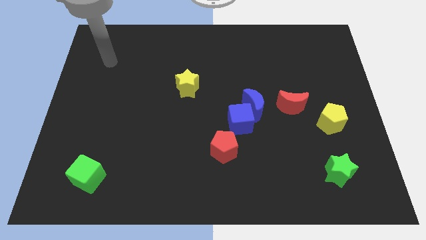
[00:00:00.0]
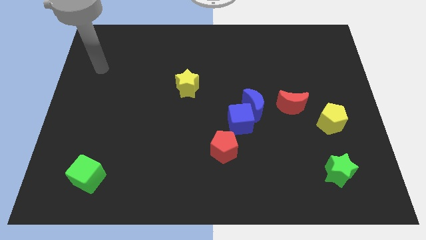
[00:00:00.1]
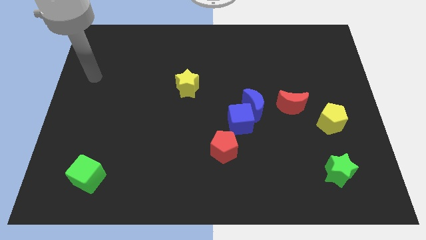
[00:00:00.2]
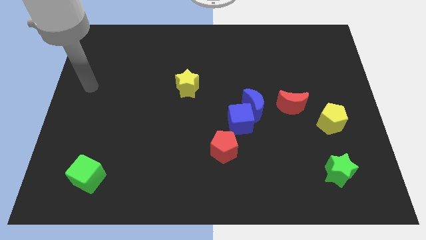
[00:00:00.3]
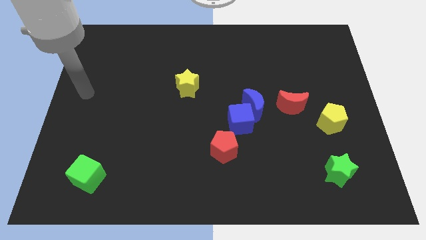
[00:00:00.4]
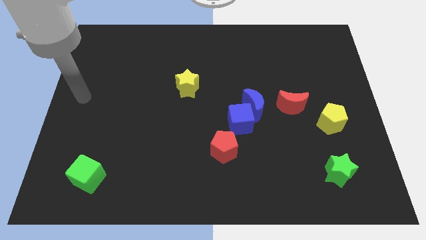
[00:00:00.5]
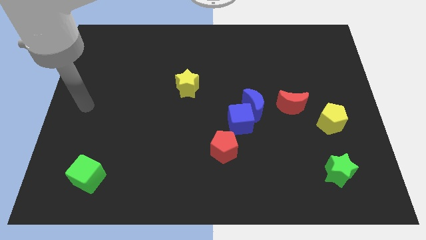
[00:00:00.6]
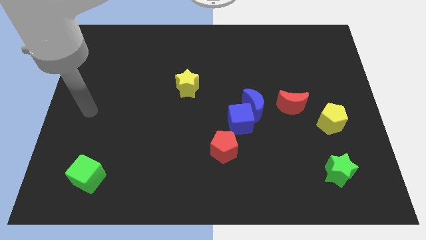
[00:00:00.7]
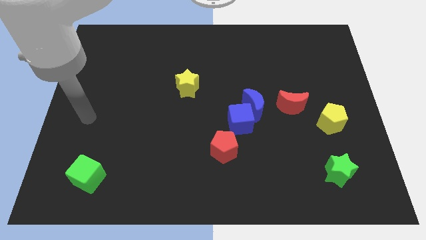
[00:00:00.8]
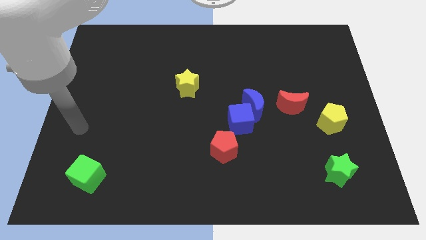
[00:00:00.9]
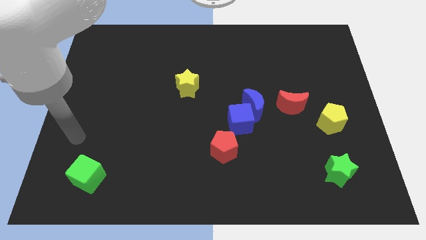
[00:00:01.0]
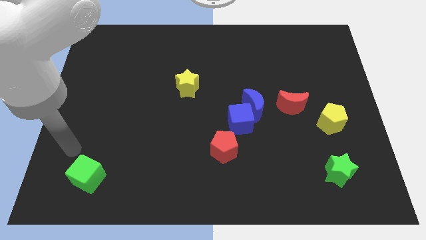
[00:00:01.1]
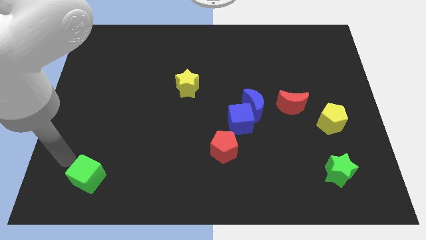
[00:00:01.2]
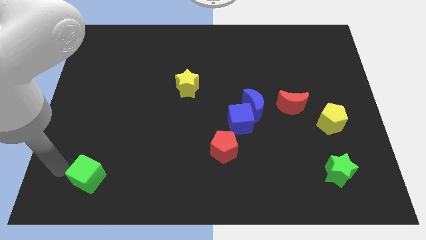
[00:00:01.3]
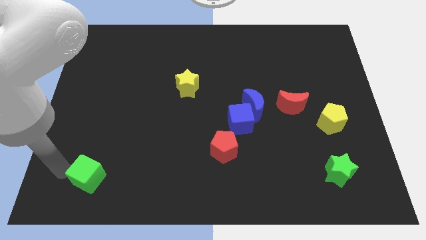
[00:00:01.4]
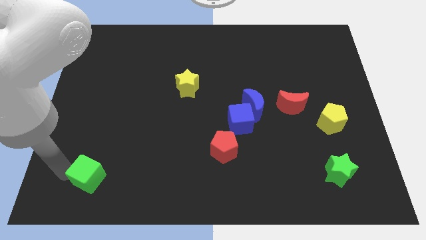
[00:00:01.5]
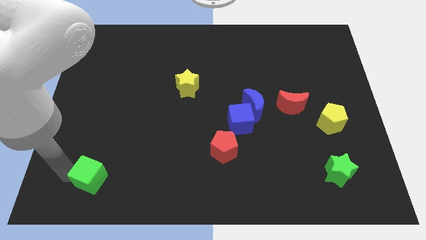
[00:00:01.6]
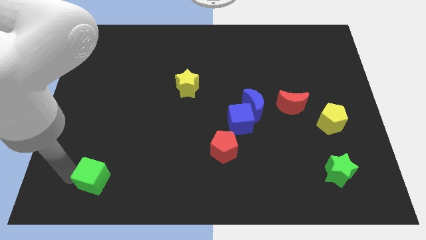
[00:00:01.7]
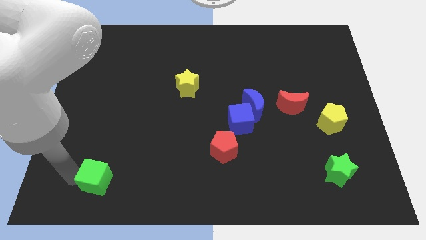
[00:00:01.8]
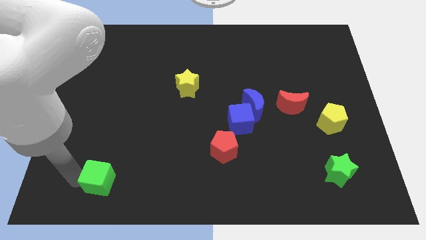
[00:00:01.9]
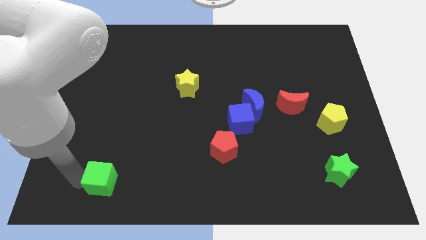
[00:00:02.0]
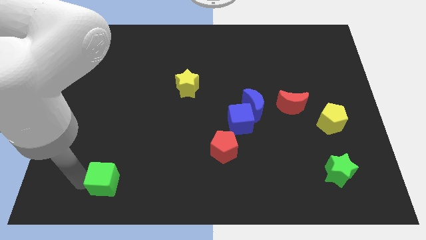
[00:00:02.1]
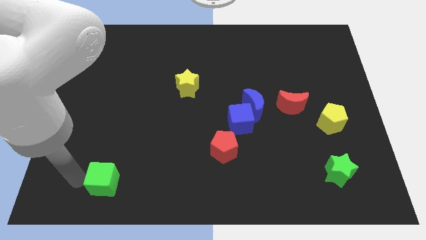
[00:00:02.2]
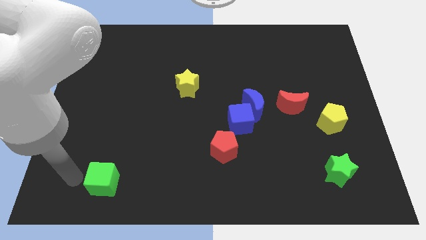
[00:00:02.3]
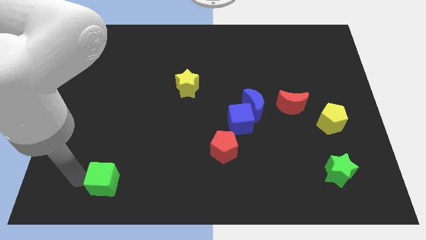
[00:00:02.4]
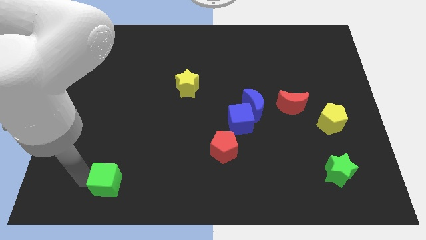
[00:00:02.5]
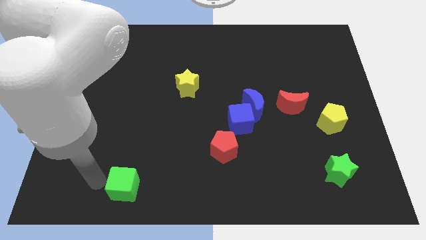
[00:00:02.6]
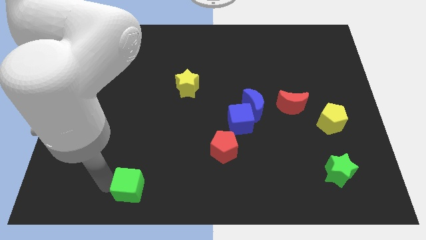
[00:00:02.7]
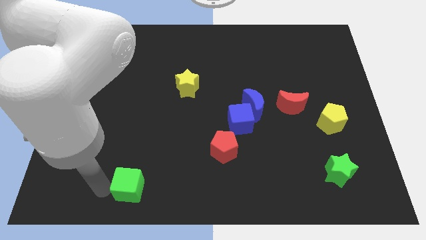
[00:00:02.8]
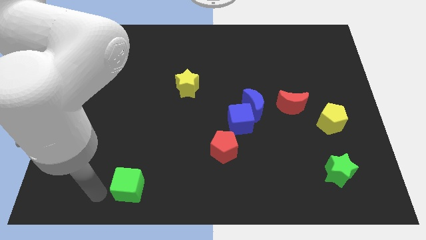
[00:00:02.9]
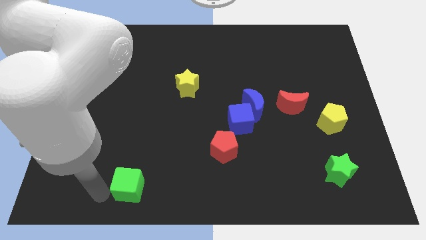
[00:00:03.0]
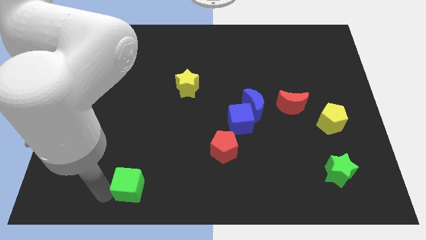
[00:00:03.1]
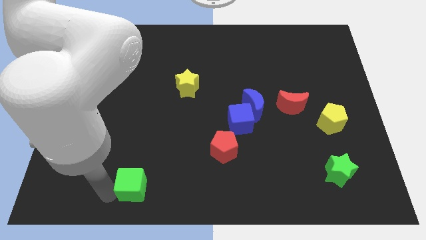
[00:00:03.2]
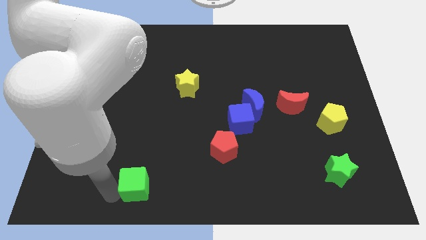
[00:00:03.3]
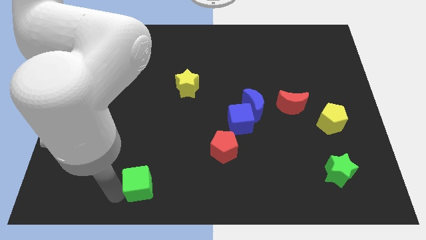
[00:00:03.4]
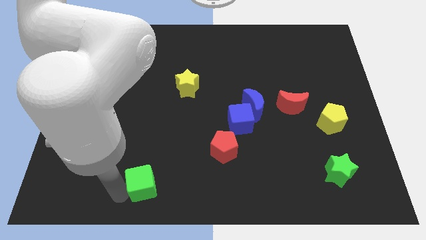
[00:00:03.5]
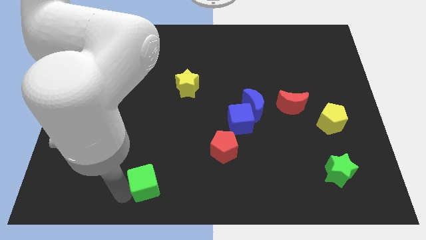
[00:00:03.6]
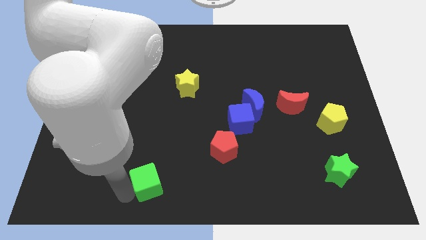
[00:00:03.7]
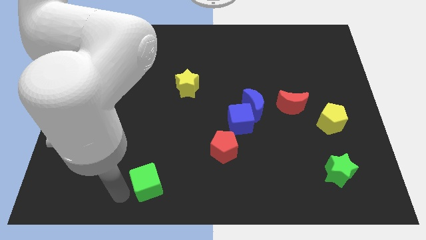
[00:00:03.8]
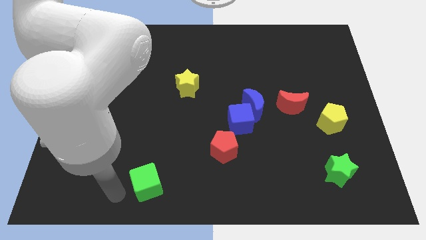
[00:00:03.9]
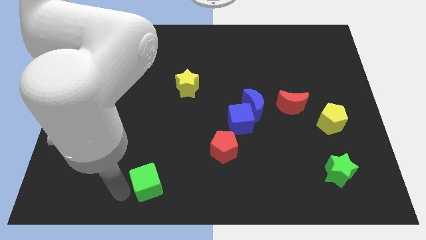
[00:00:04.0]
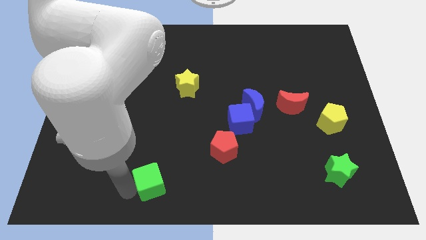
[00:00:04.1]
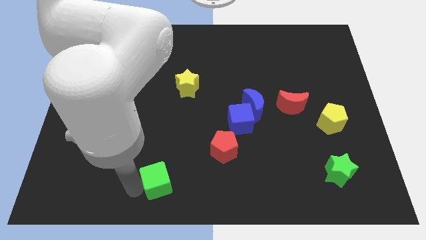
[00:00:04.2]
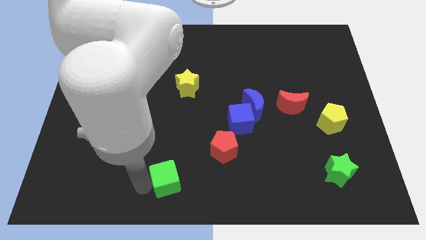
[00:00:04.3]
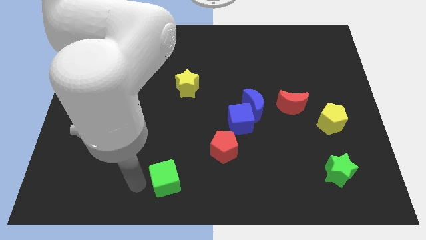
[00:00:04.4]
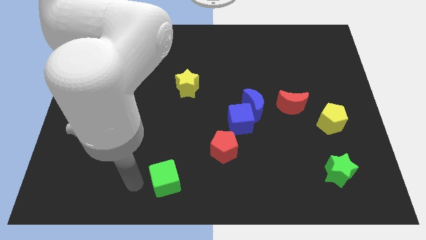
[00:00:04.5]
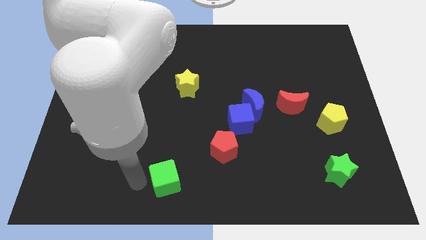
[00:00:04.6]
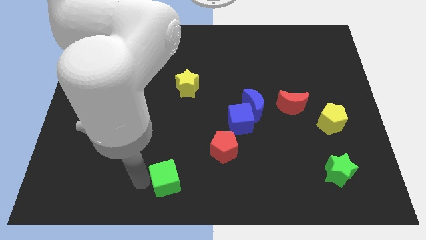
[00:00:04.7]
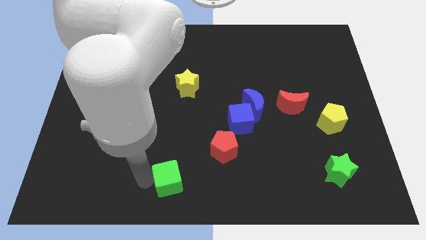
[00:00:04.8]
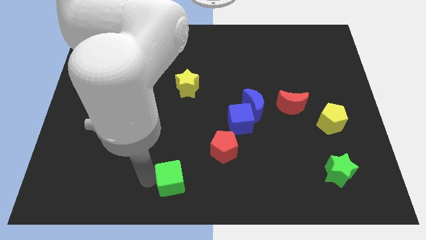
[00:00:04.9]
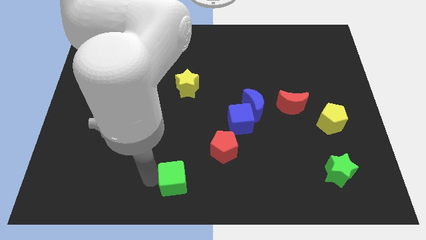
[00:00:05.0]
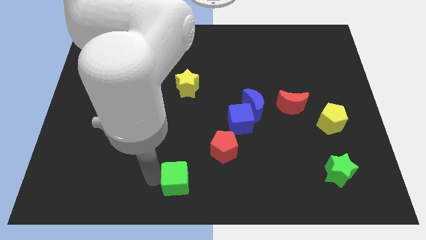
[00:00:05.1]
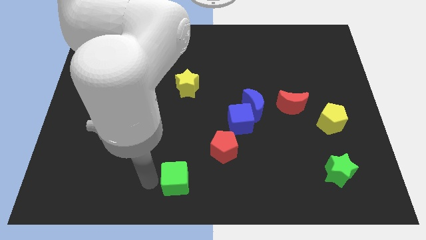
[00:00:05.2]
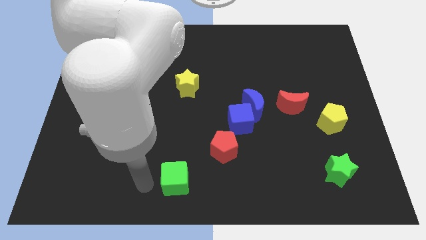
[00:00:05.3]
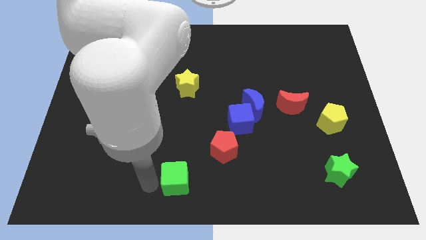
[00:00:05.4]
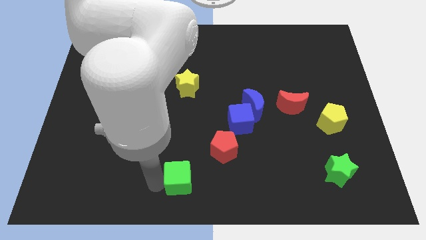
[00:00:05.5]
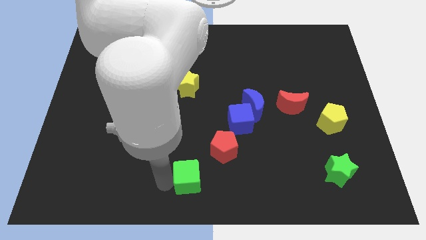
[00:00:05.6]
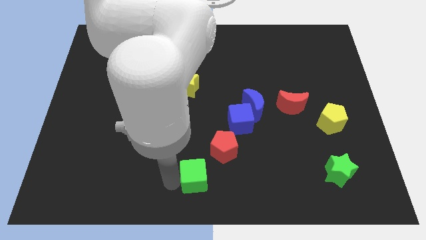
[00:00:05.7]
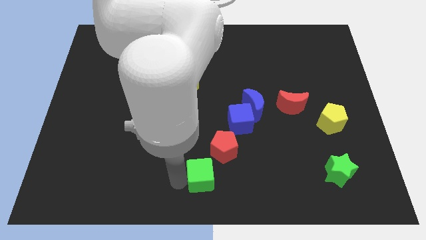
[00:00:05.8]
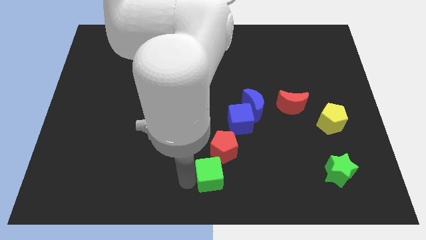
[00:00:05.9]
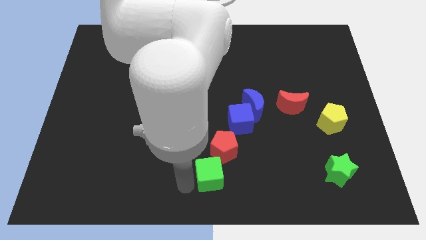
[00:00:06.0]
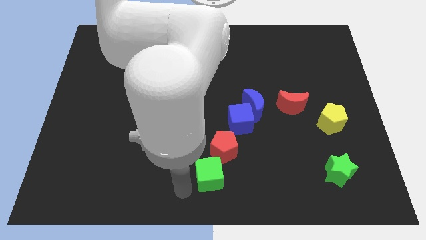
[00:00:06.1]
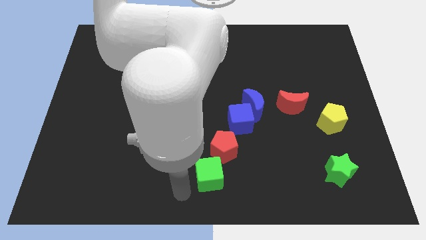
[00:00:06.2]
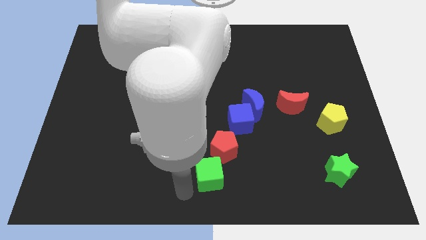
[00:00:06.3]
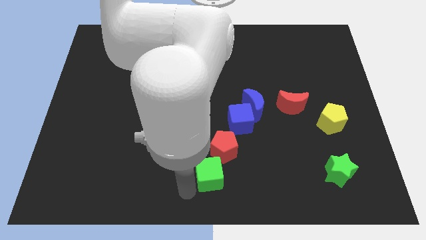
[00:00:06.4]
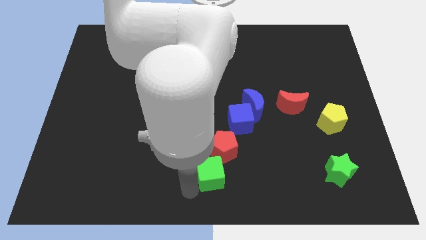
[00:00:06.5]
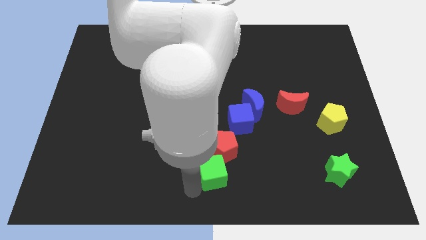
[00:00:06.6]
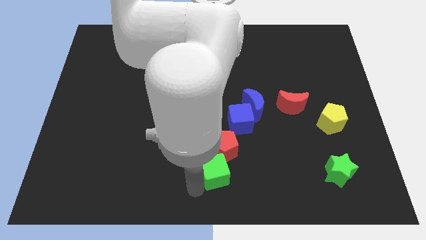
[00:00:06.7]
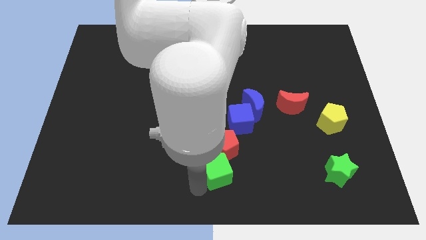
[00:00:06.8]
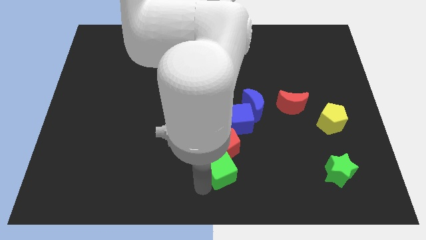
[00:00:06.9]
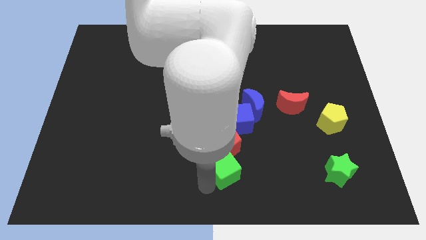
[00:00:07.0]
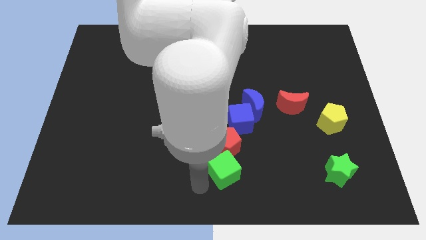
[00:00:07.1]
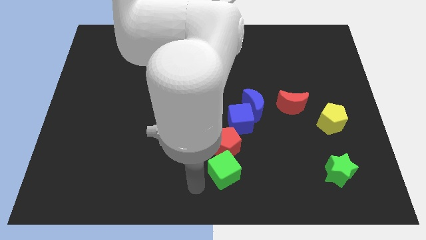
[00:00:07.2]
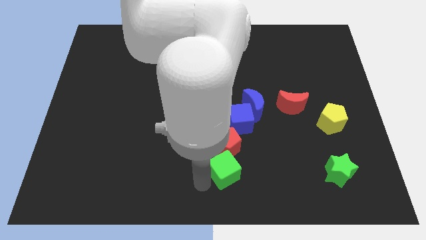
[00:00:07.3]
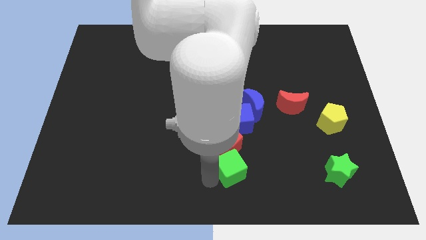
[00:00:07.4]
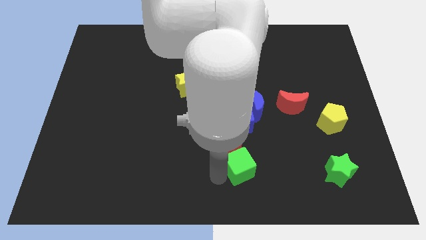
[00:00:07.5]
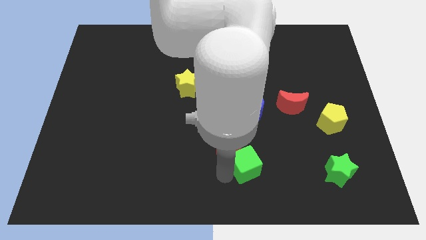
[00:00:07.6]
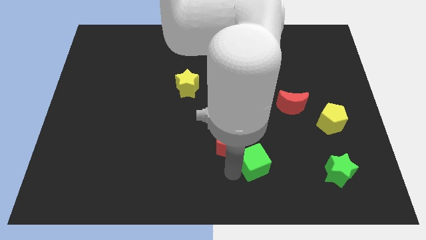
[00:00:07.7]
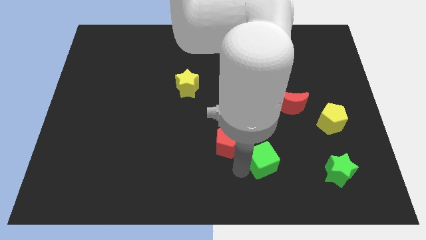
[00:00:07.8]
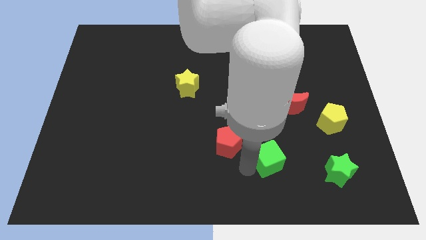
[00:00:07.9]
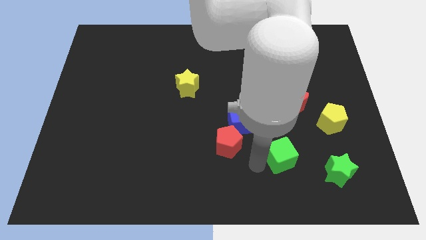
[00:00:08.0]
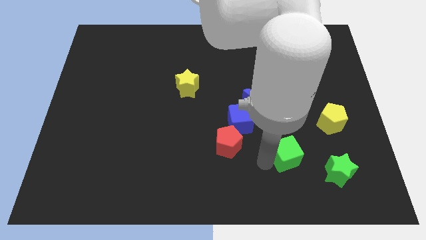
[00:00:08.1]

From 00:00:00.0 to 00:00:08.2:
put the green cube to the top left side of the green star
